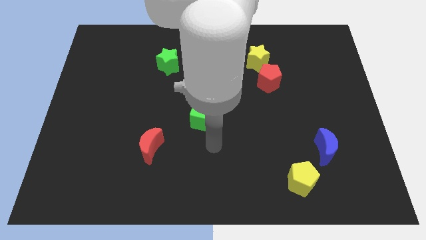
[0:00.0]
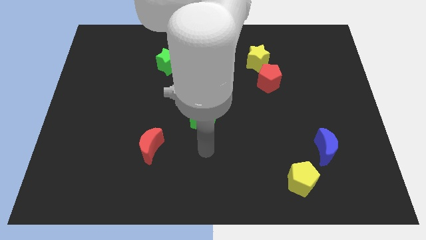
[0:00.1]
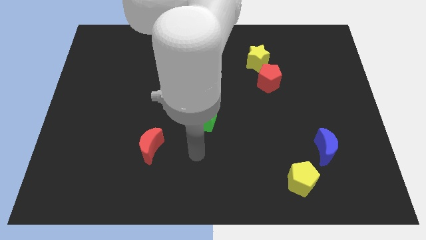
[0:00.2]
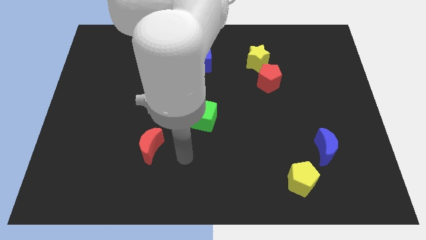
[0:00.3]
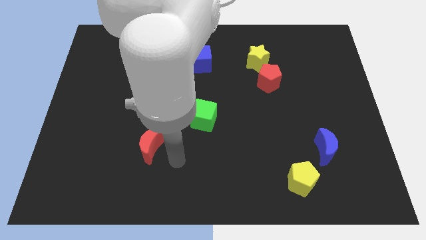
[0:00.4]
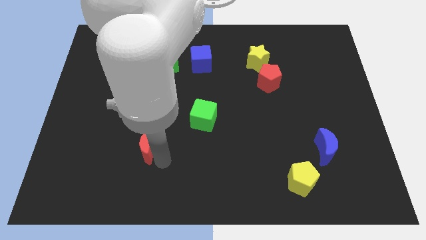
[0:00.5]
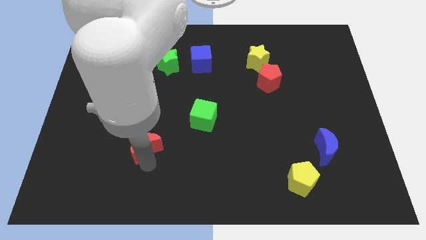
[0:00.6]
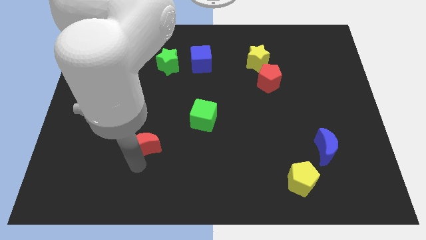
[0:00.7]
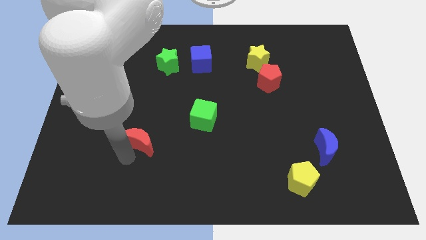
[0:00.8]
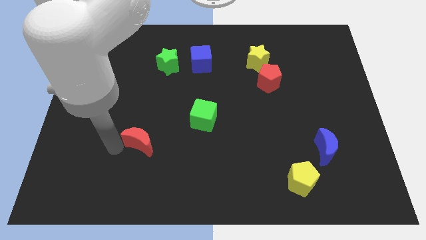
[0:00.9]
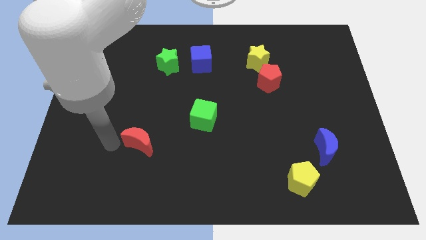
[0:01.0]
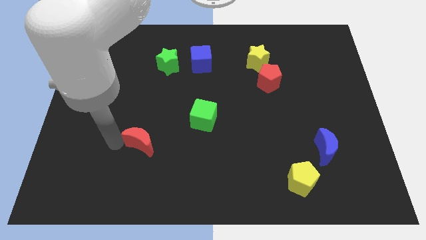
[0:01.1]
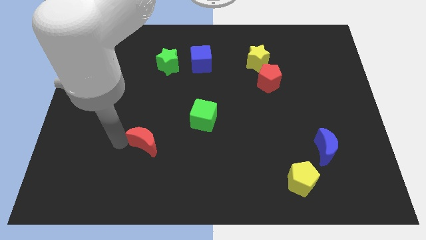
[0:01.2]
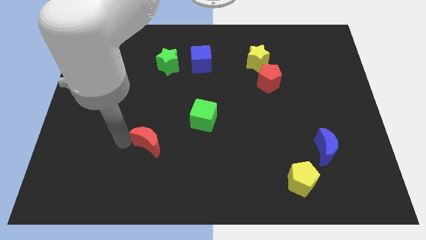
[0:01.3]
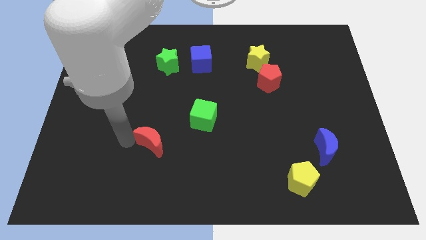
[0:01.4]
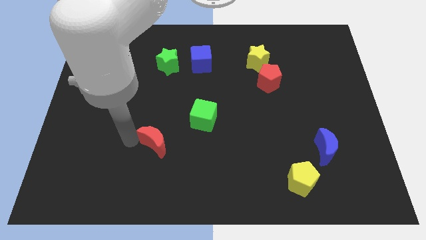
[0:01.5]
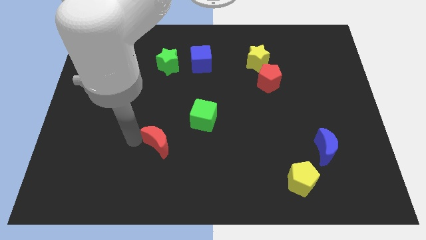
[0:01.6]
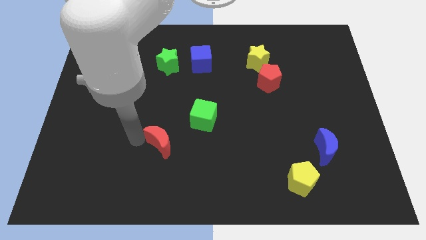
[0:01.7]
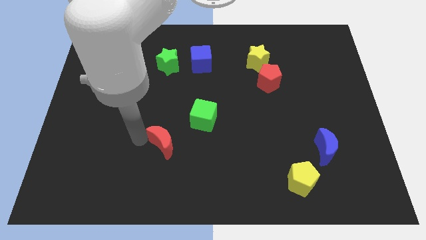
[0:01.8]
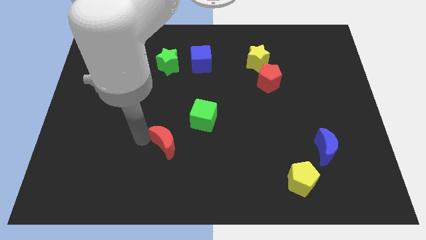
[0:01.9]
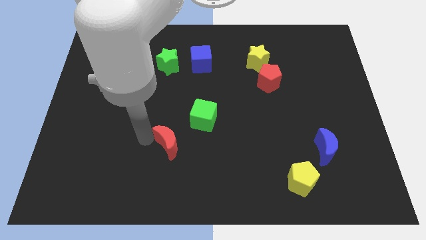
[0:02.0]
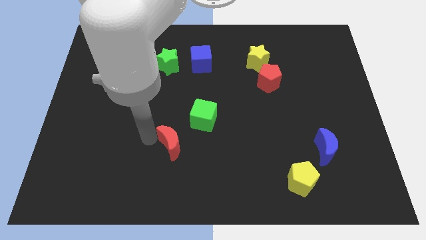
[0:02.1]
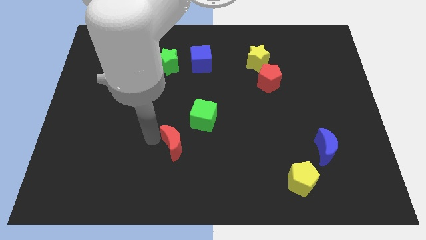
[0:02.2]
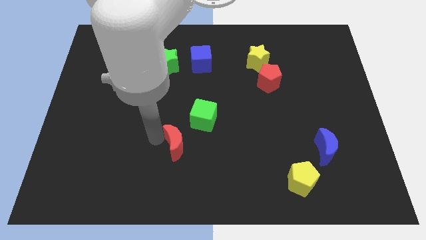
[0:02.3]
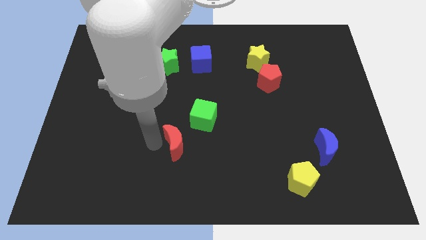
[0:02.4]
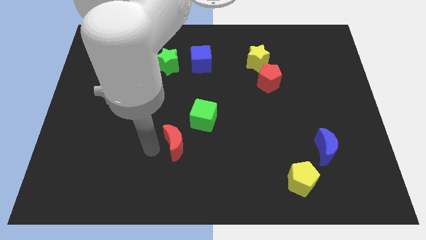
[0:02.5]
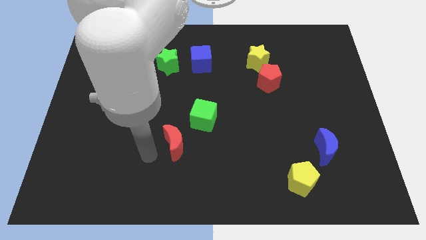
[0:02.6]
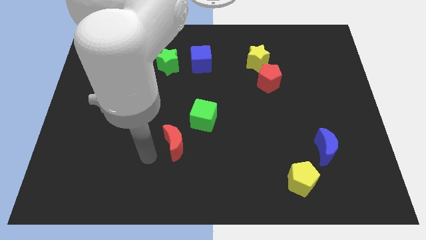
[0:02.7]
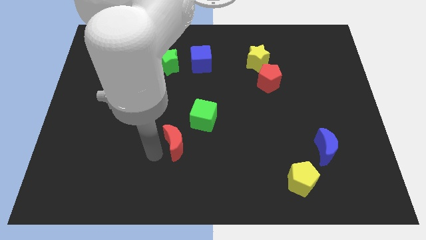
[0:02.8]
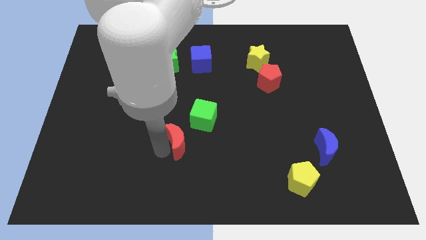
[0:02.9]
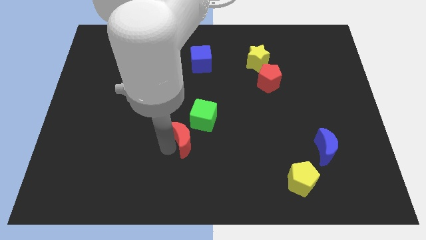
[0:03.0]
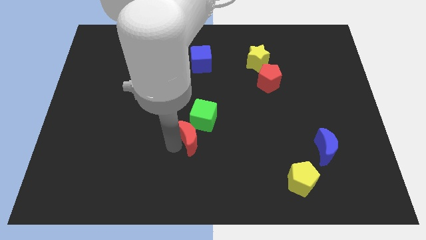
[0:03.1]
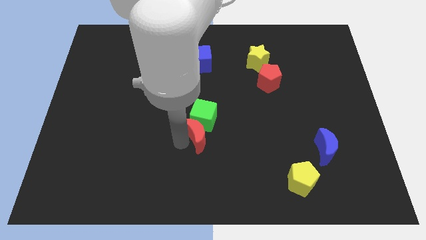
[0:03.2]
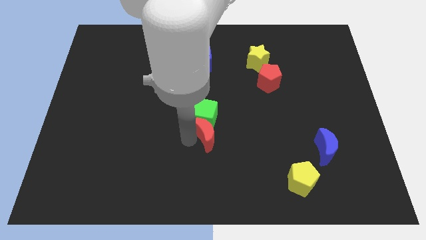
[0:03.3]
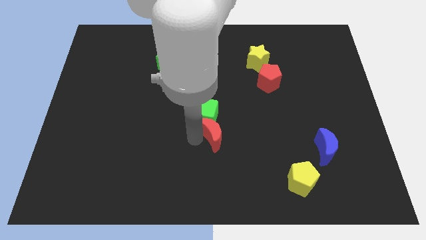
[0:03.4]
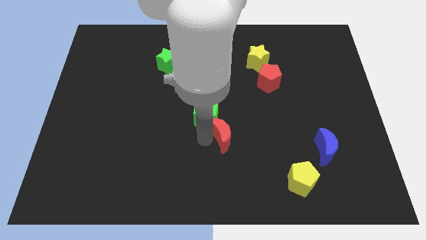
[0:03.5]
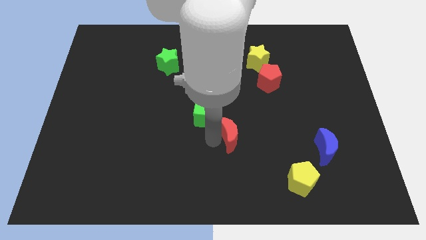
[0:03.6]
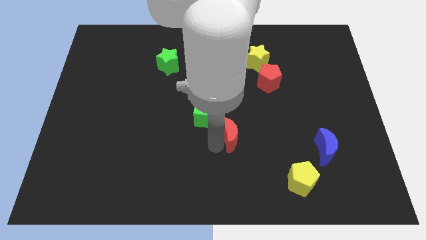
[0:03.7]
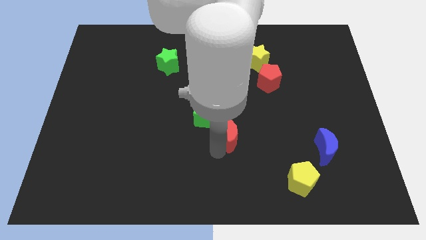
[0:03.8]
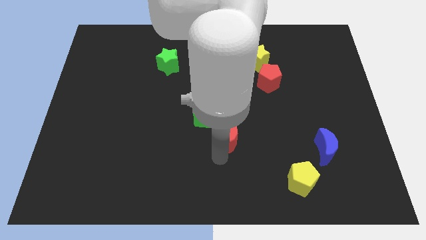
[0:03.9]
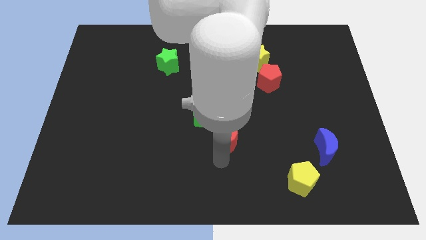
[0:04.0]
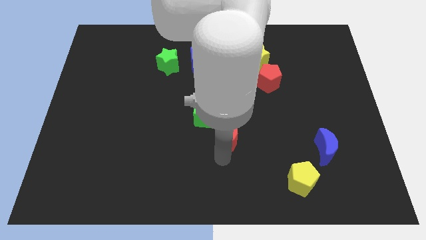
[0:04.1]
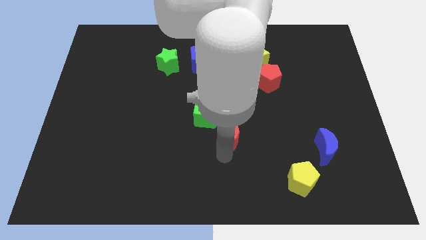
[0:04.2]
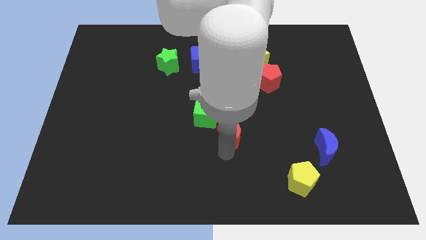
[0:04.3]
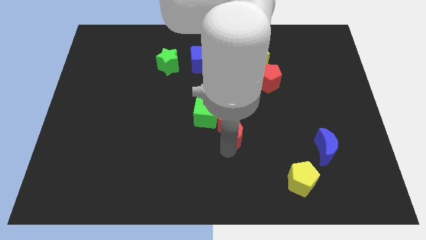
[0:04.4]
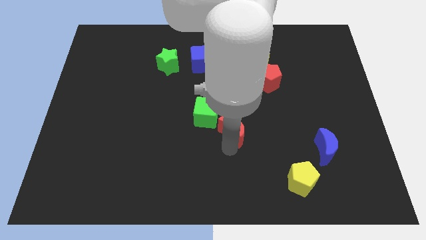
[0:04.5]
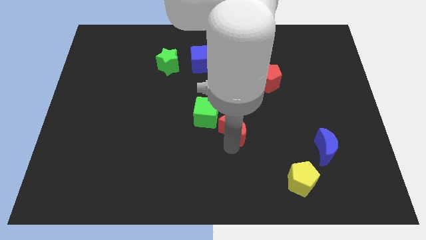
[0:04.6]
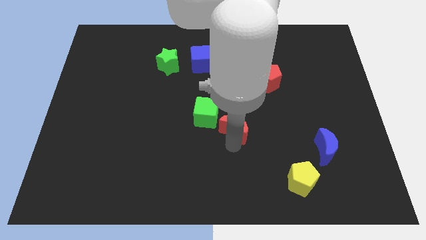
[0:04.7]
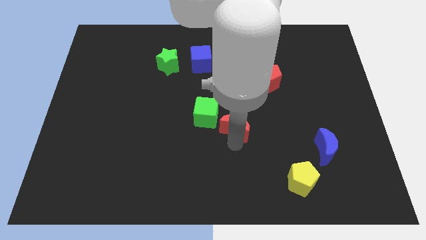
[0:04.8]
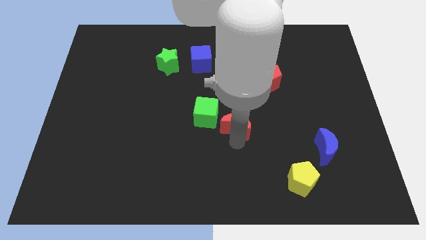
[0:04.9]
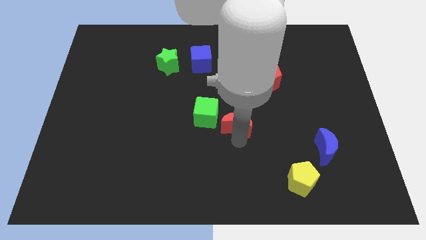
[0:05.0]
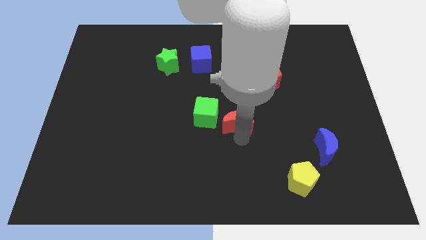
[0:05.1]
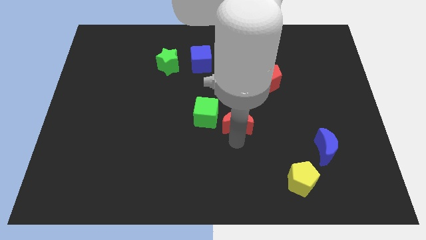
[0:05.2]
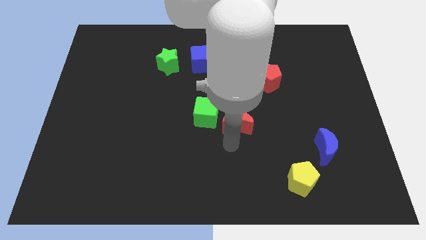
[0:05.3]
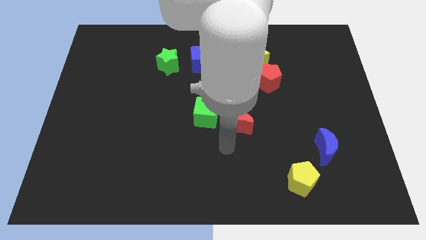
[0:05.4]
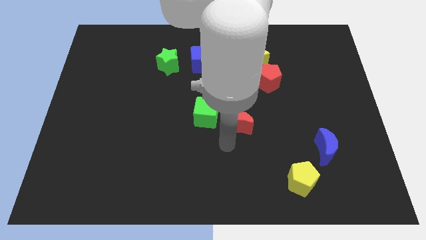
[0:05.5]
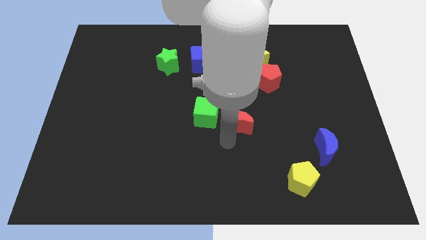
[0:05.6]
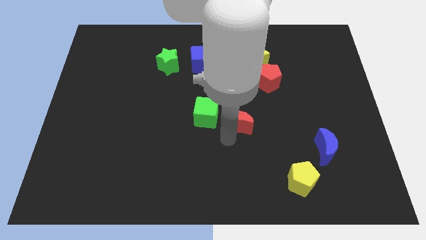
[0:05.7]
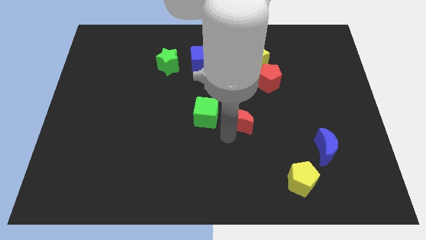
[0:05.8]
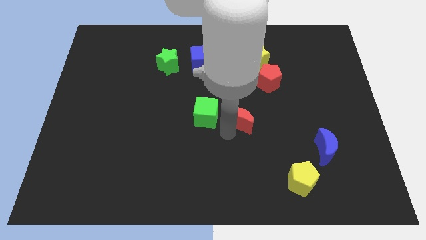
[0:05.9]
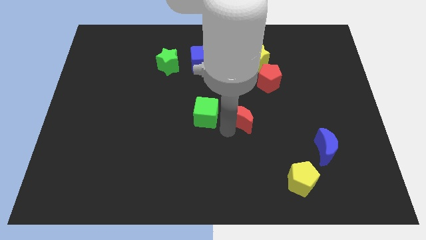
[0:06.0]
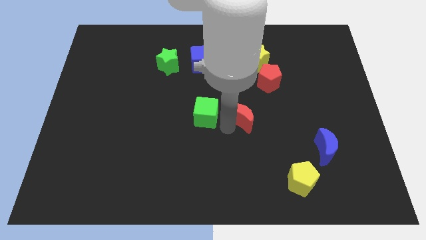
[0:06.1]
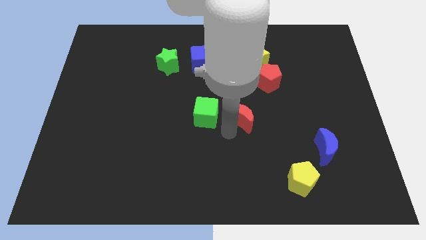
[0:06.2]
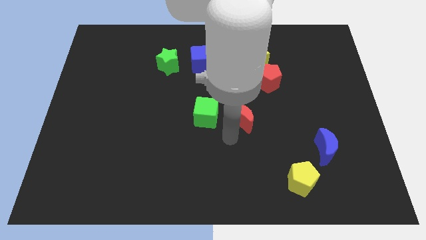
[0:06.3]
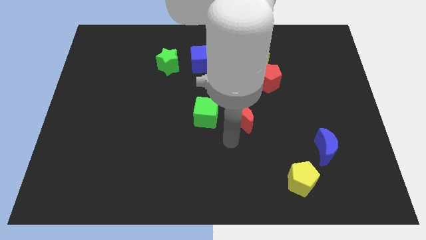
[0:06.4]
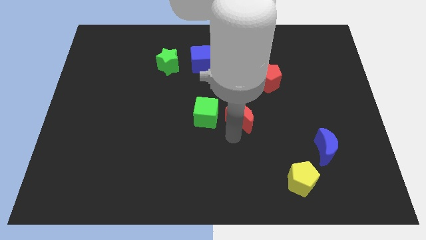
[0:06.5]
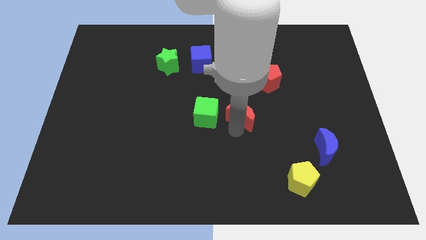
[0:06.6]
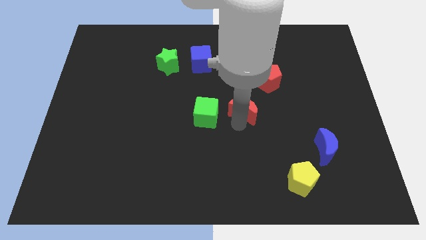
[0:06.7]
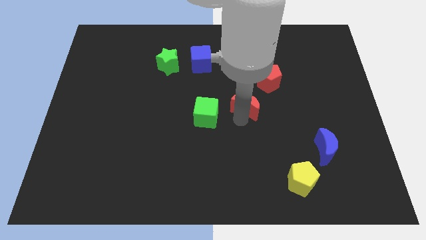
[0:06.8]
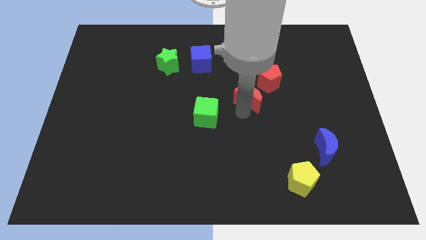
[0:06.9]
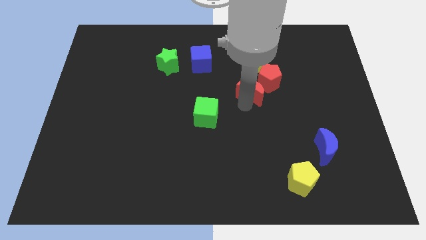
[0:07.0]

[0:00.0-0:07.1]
put the red moon towards the red pentagon
